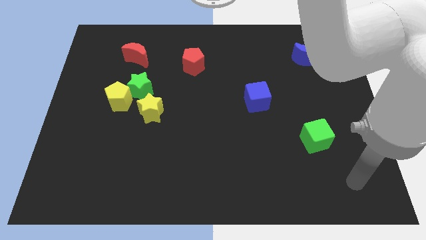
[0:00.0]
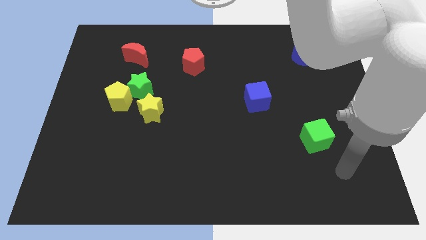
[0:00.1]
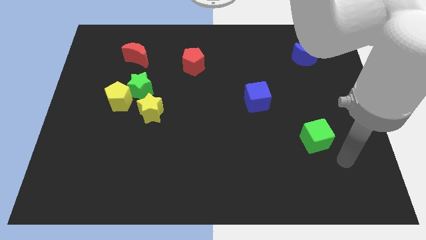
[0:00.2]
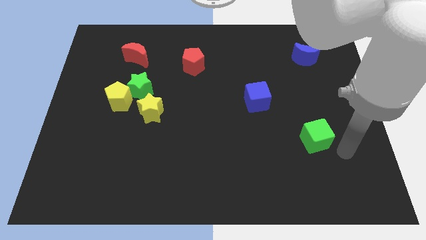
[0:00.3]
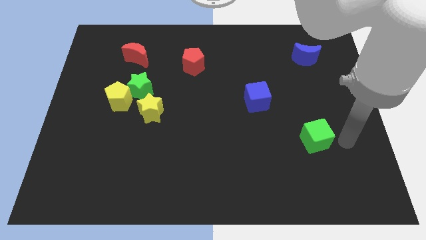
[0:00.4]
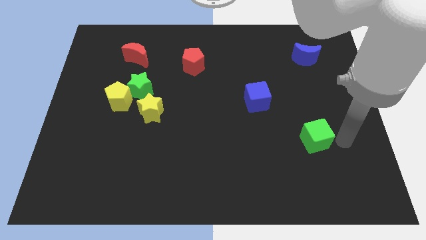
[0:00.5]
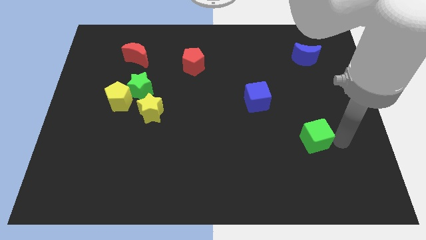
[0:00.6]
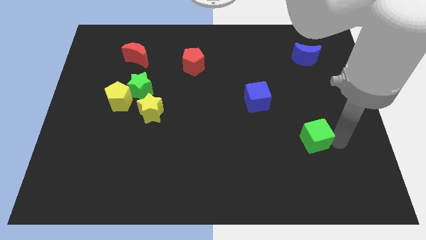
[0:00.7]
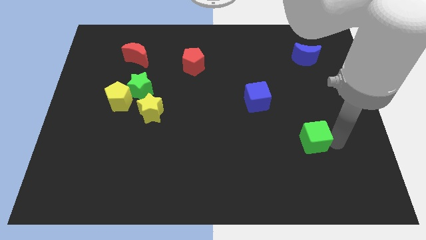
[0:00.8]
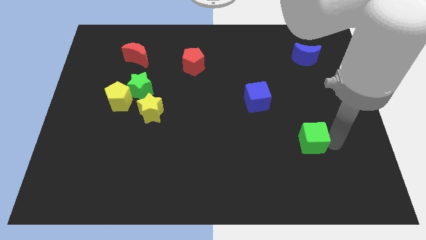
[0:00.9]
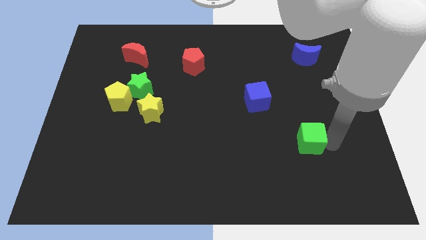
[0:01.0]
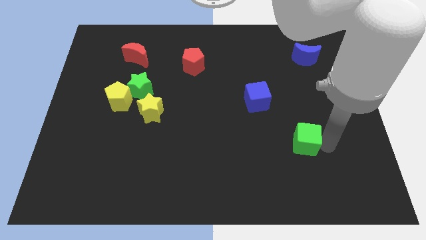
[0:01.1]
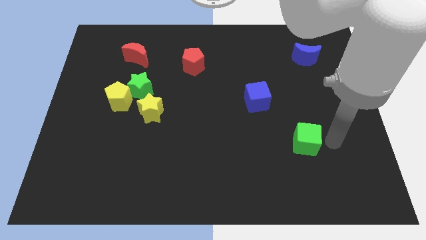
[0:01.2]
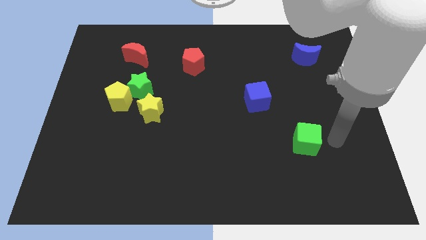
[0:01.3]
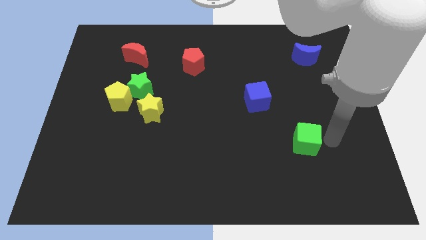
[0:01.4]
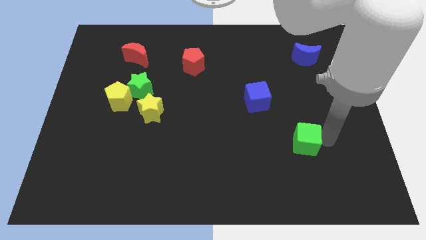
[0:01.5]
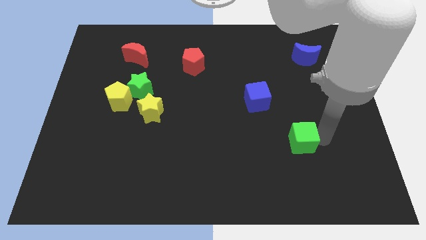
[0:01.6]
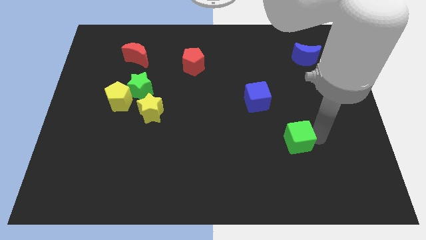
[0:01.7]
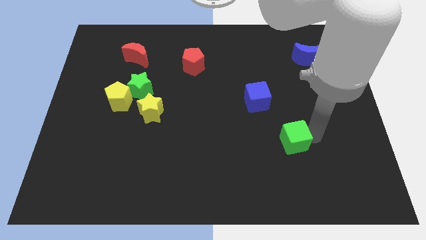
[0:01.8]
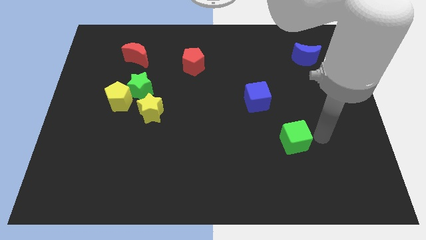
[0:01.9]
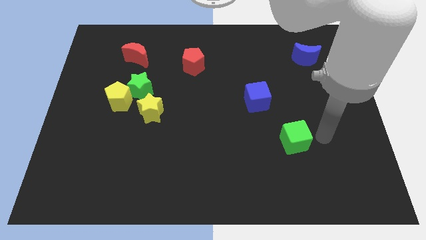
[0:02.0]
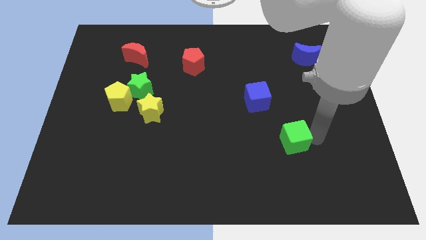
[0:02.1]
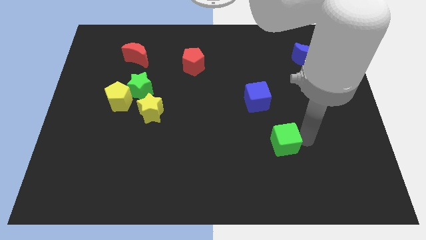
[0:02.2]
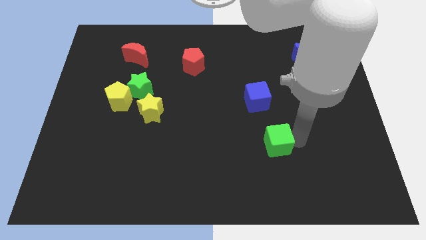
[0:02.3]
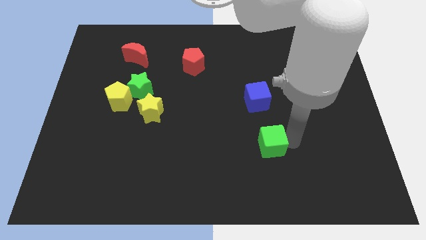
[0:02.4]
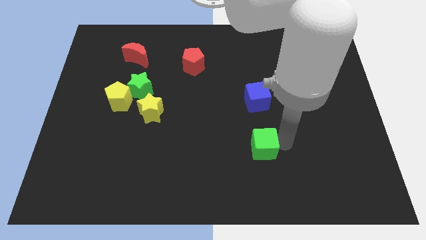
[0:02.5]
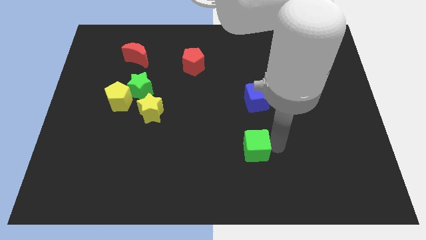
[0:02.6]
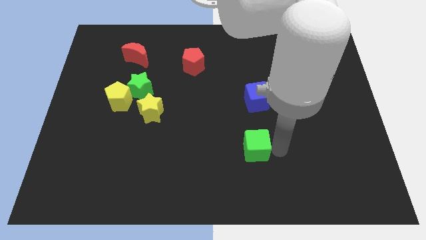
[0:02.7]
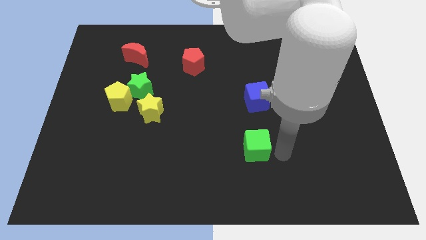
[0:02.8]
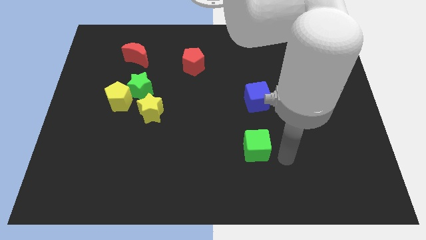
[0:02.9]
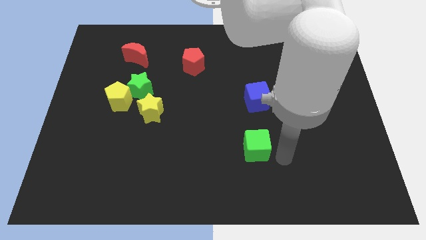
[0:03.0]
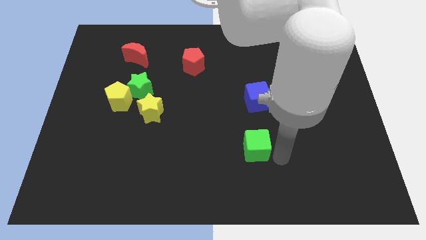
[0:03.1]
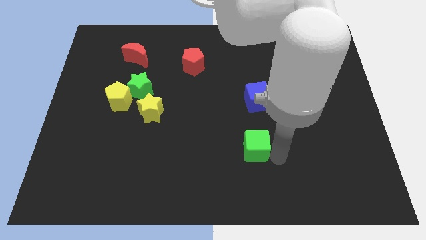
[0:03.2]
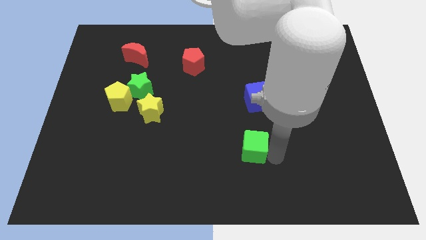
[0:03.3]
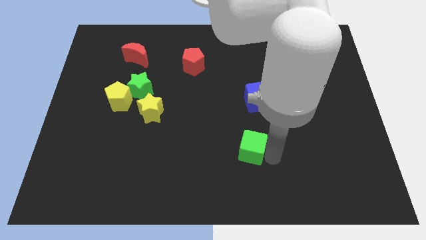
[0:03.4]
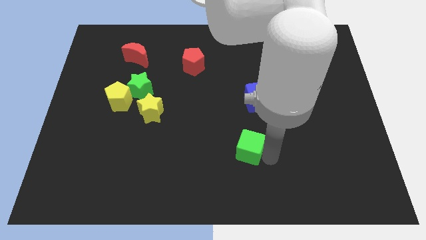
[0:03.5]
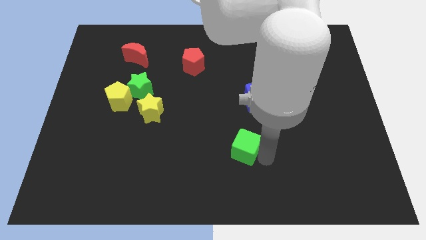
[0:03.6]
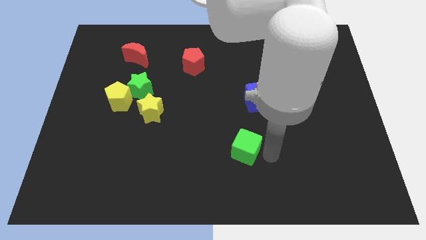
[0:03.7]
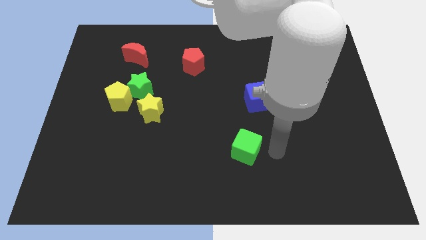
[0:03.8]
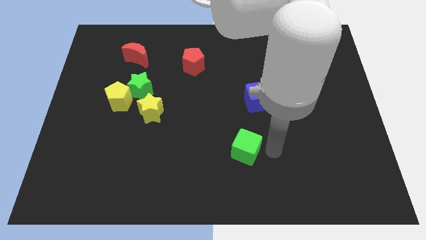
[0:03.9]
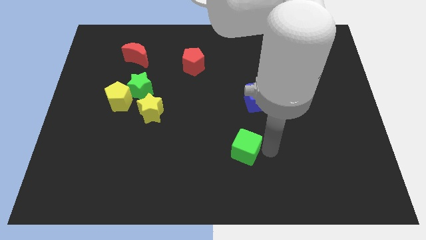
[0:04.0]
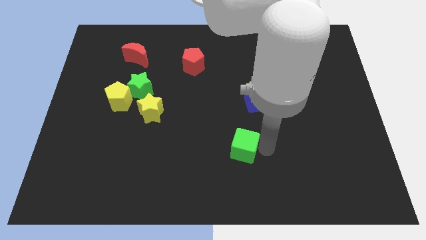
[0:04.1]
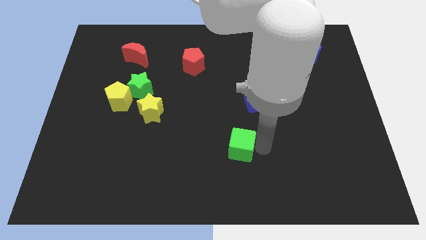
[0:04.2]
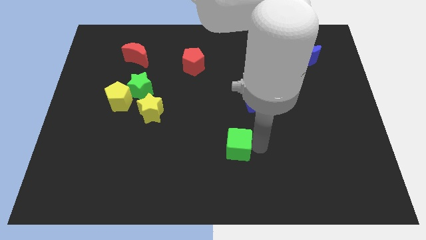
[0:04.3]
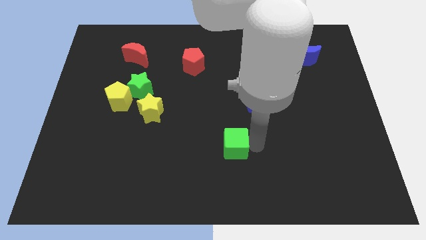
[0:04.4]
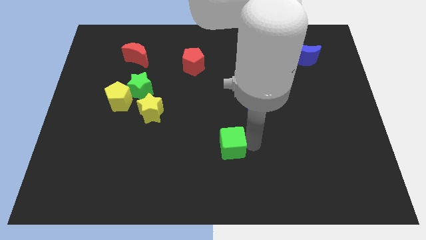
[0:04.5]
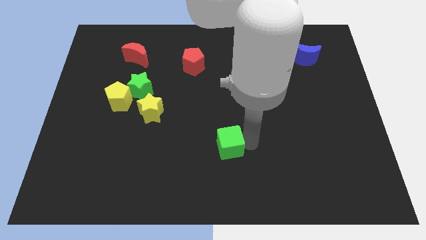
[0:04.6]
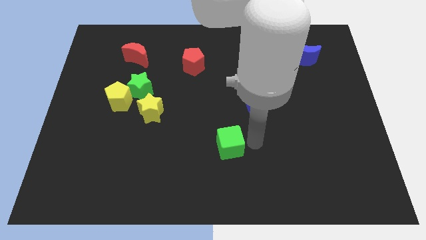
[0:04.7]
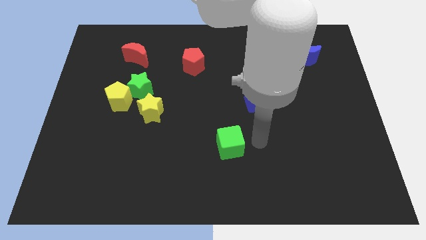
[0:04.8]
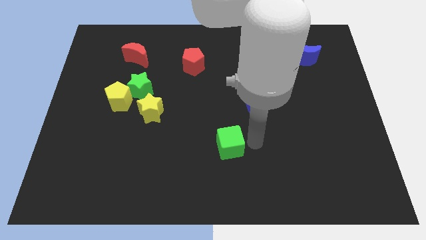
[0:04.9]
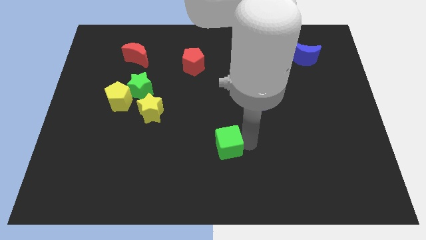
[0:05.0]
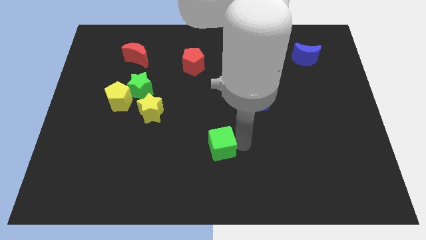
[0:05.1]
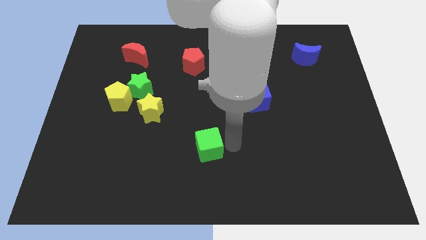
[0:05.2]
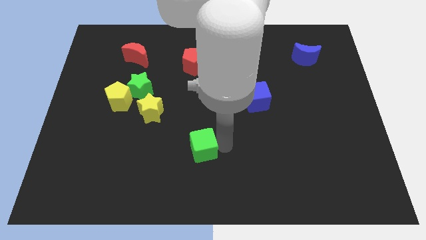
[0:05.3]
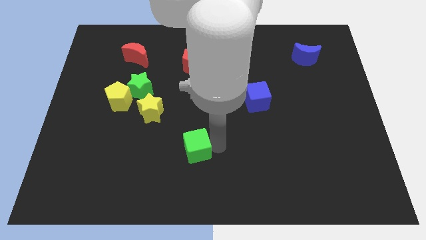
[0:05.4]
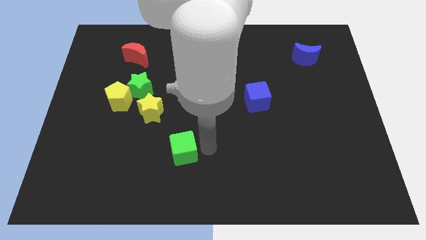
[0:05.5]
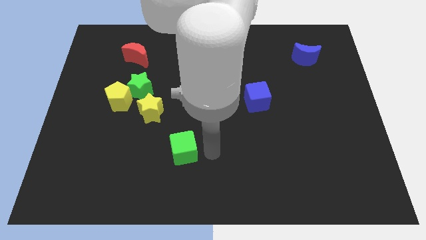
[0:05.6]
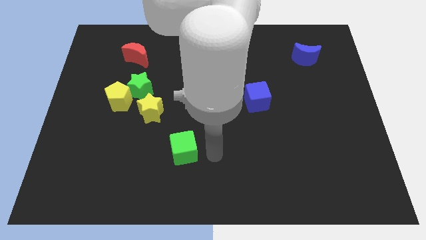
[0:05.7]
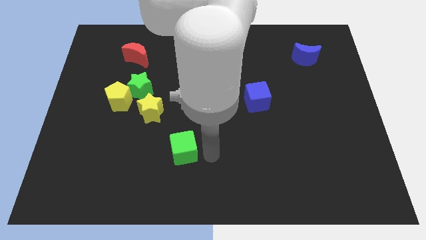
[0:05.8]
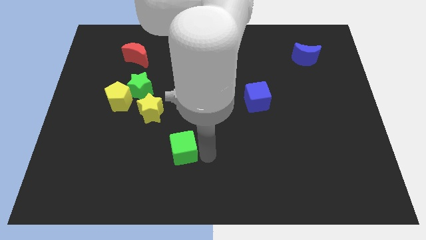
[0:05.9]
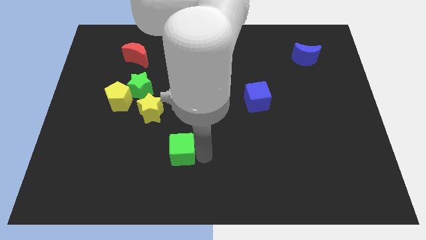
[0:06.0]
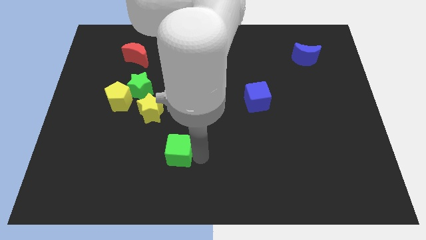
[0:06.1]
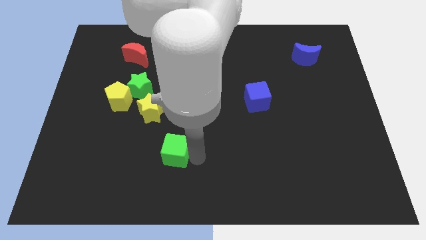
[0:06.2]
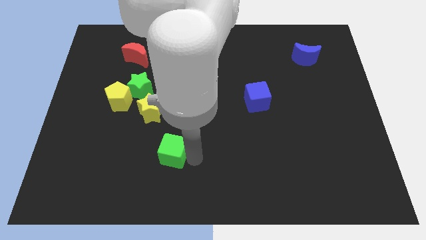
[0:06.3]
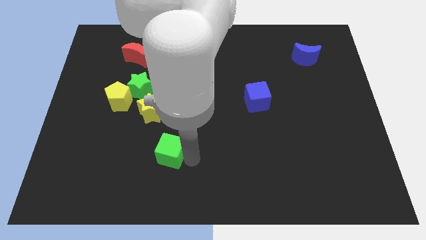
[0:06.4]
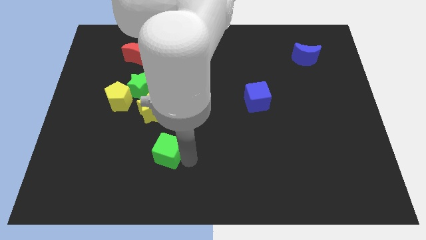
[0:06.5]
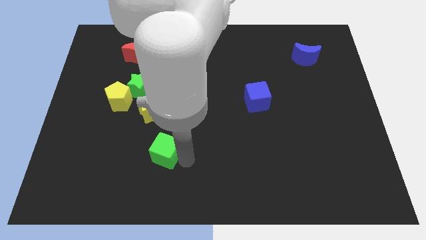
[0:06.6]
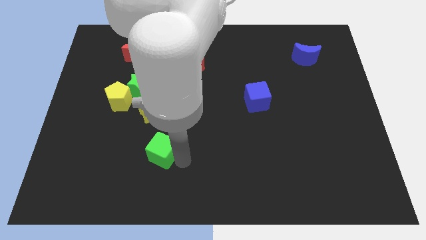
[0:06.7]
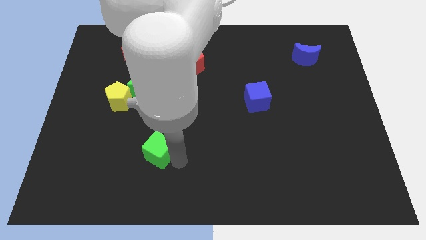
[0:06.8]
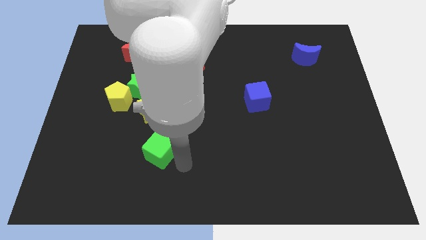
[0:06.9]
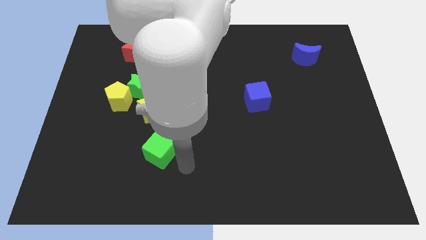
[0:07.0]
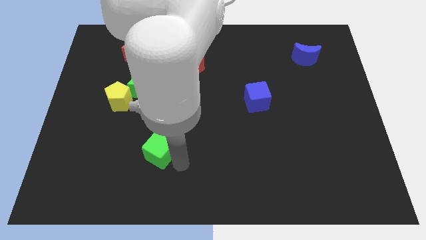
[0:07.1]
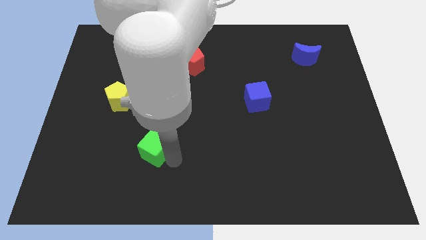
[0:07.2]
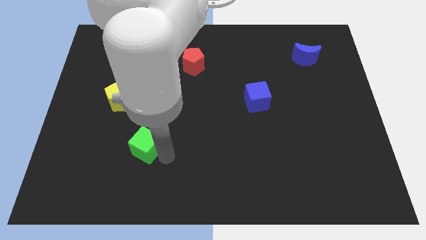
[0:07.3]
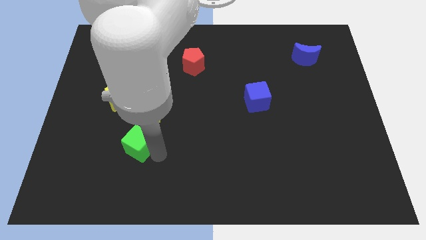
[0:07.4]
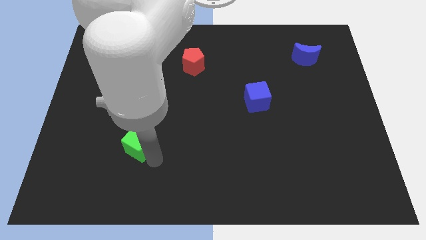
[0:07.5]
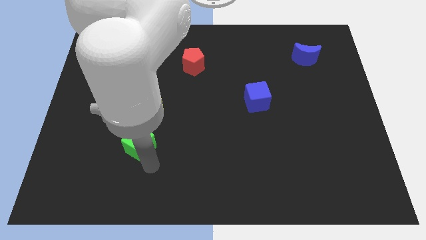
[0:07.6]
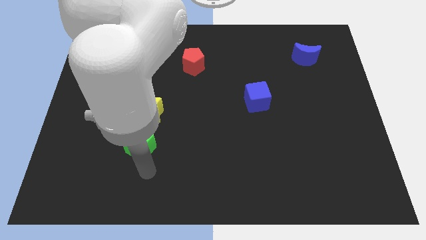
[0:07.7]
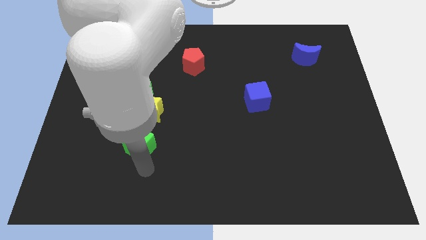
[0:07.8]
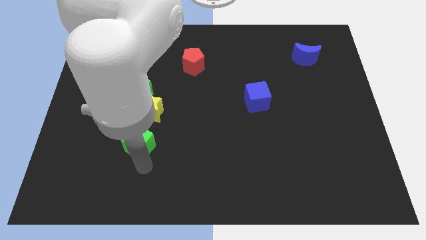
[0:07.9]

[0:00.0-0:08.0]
slide the green cube below the green star
